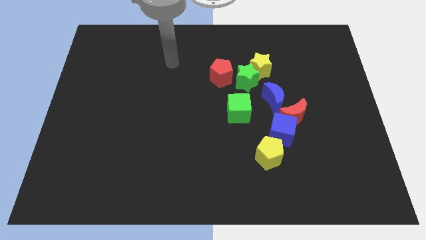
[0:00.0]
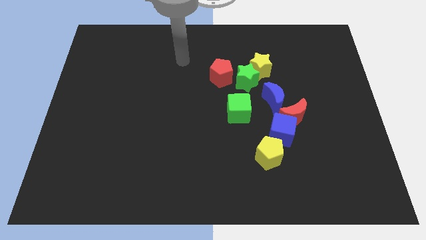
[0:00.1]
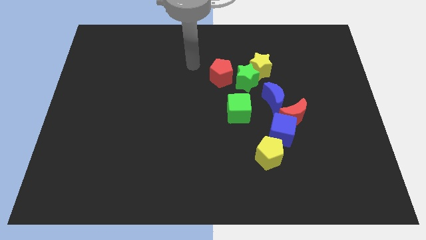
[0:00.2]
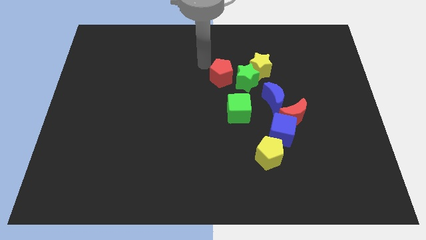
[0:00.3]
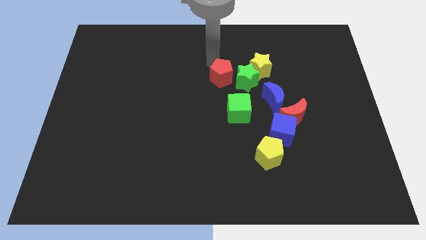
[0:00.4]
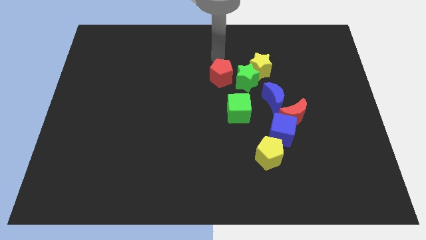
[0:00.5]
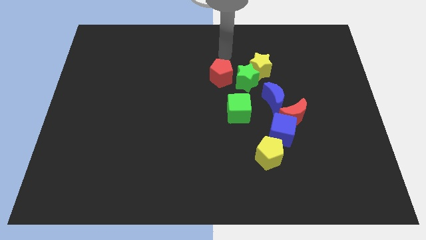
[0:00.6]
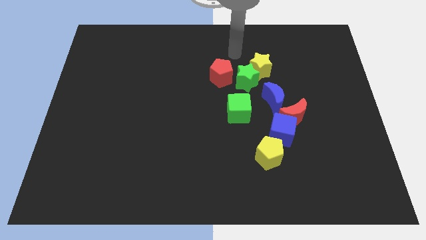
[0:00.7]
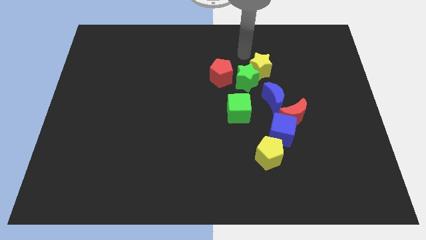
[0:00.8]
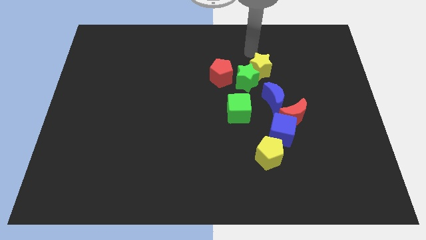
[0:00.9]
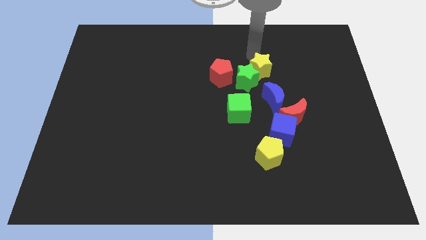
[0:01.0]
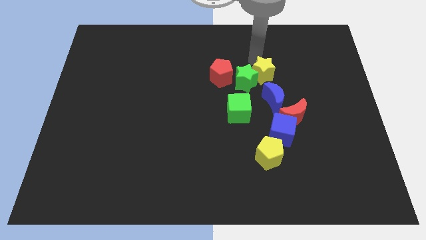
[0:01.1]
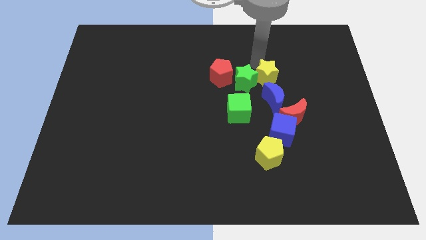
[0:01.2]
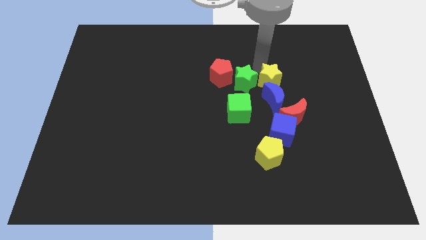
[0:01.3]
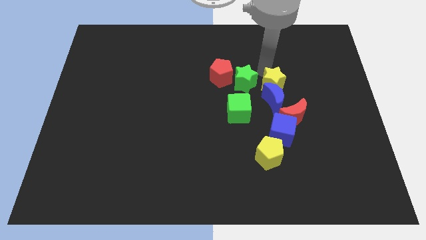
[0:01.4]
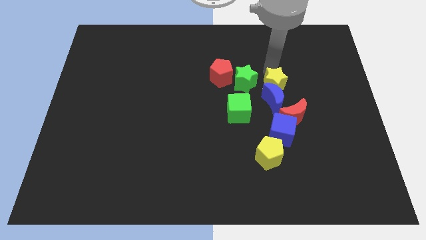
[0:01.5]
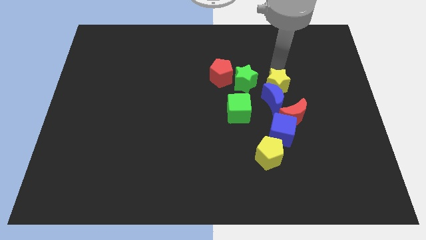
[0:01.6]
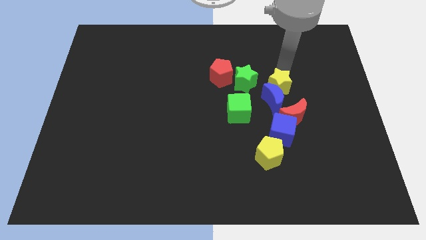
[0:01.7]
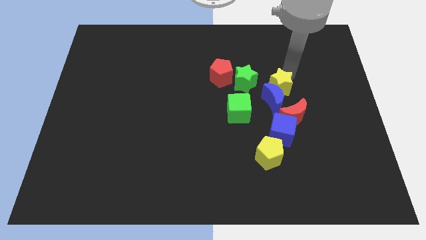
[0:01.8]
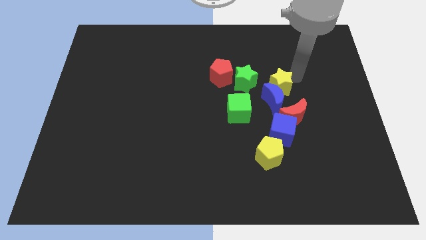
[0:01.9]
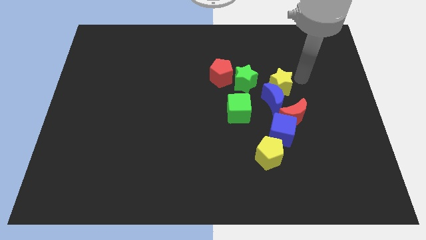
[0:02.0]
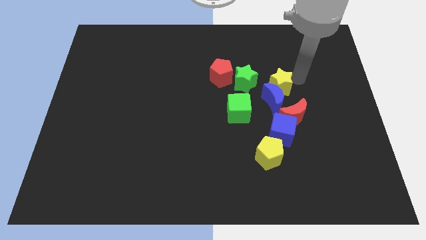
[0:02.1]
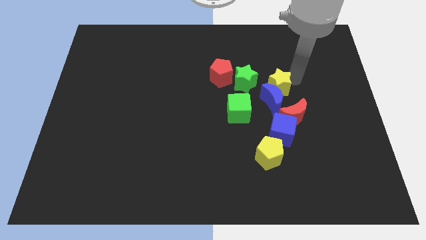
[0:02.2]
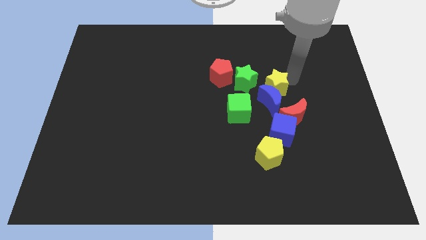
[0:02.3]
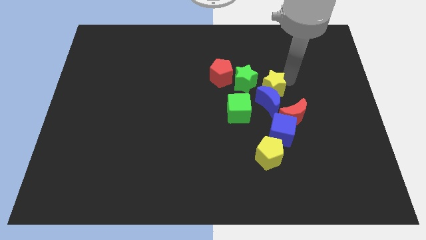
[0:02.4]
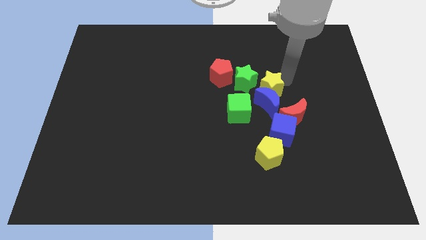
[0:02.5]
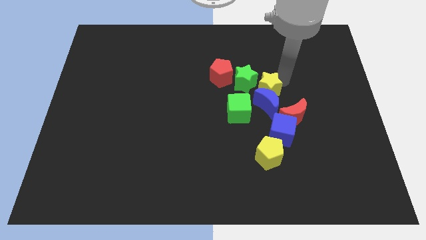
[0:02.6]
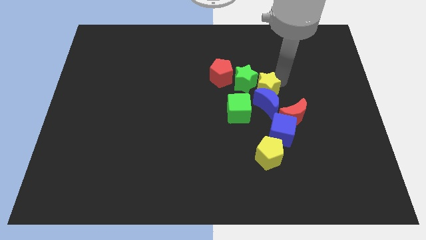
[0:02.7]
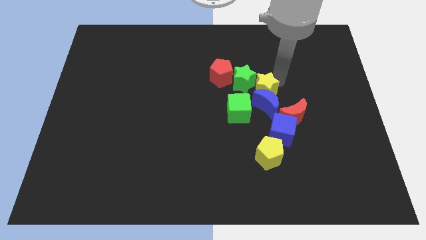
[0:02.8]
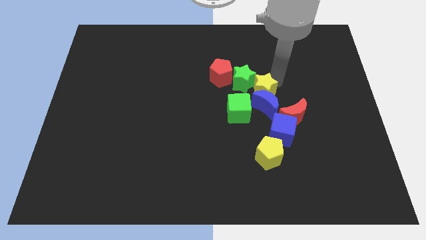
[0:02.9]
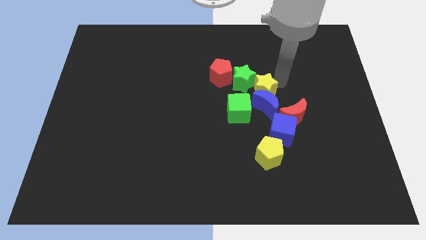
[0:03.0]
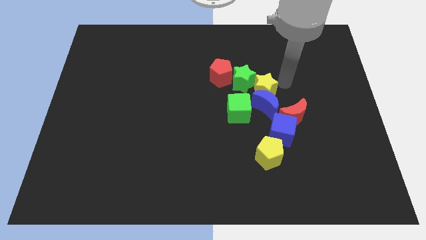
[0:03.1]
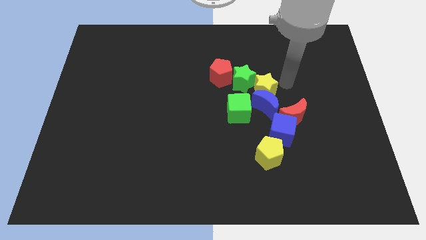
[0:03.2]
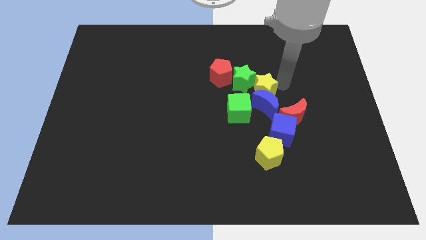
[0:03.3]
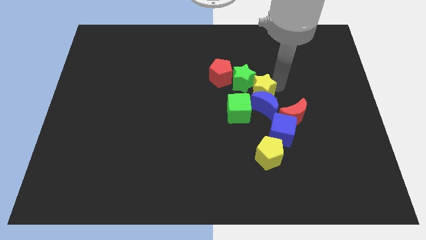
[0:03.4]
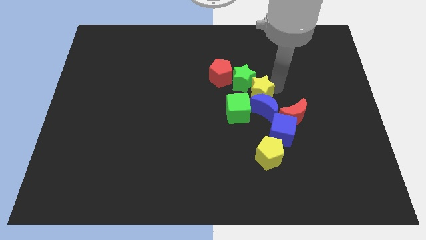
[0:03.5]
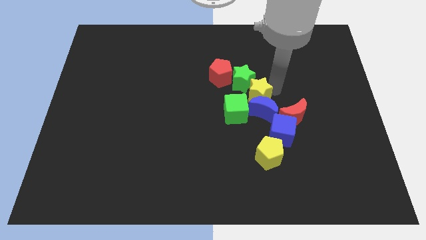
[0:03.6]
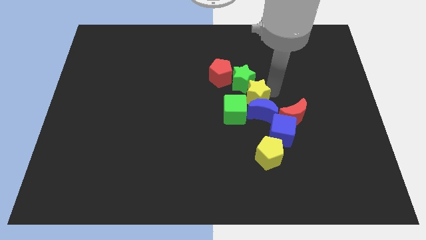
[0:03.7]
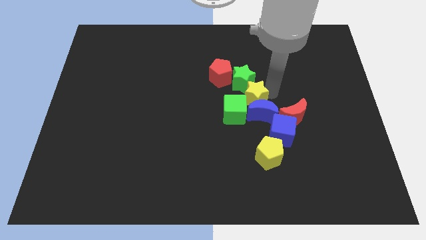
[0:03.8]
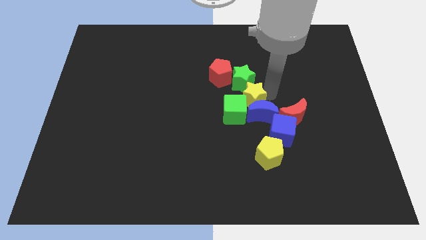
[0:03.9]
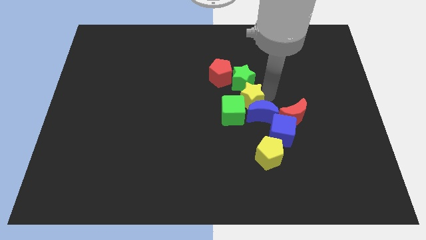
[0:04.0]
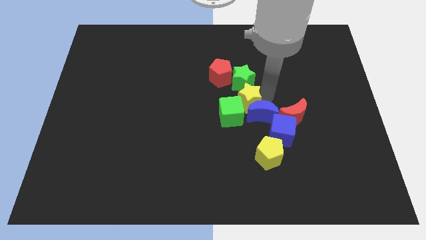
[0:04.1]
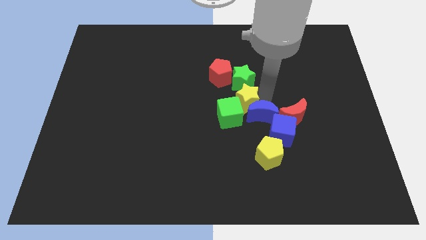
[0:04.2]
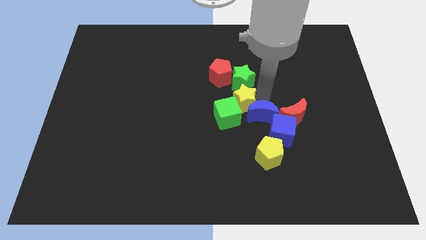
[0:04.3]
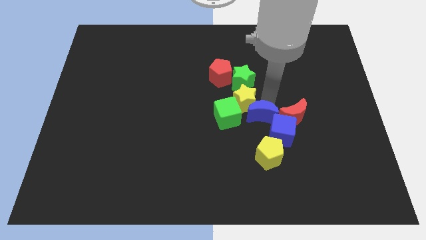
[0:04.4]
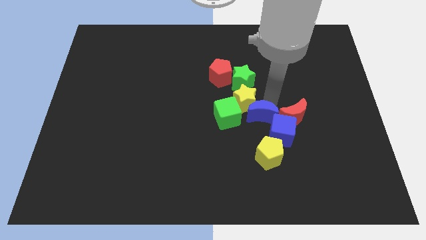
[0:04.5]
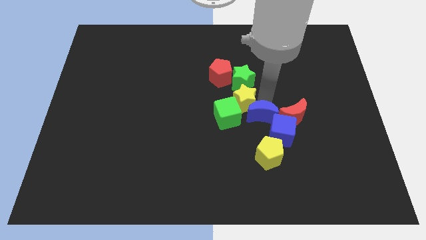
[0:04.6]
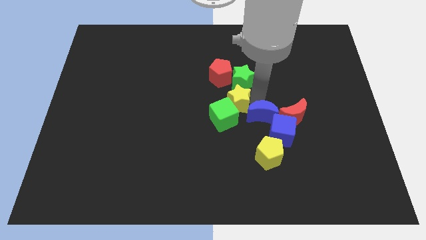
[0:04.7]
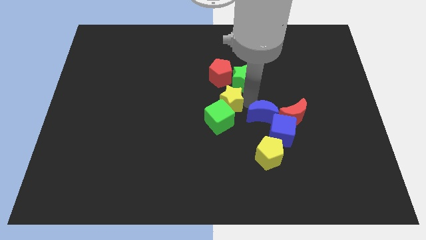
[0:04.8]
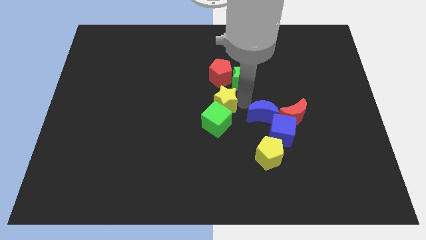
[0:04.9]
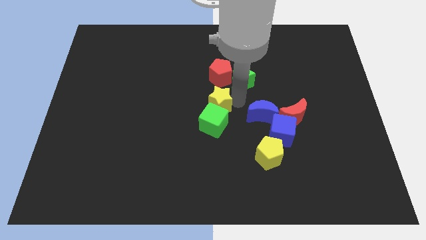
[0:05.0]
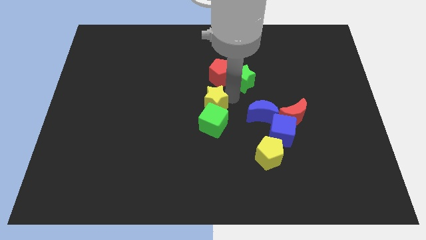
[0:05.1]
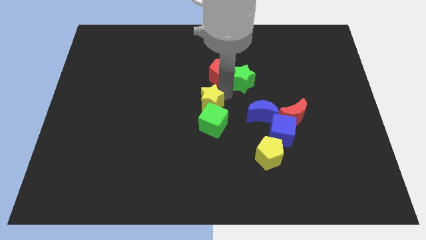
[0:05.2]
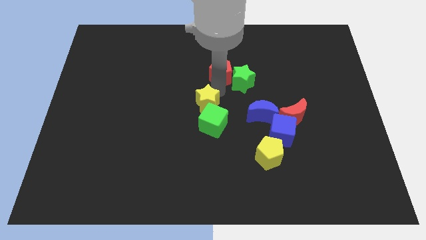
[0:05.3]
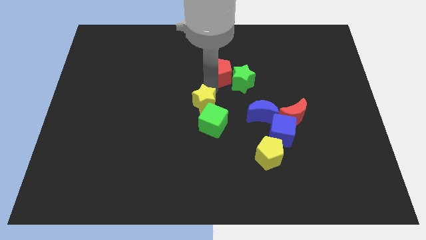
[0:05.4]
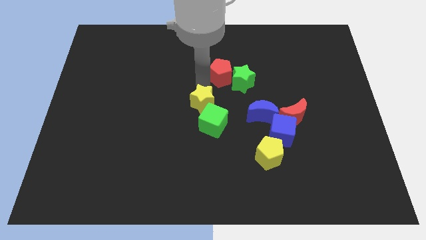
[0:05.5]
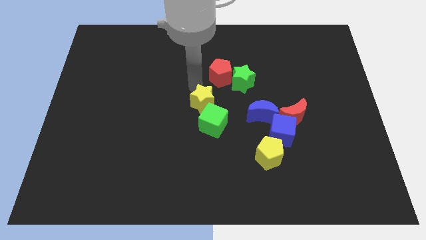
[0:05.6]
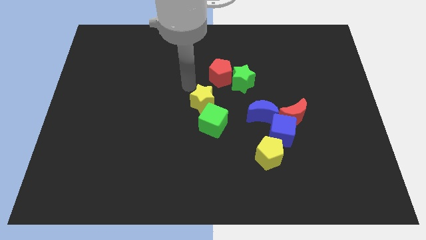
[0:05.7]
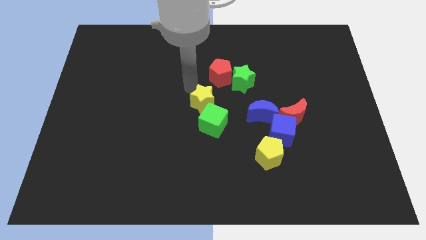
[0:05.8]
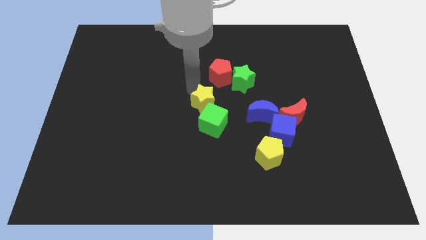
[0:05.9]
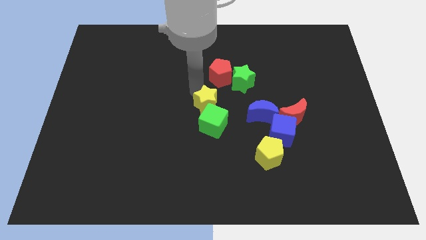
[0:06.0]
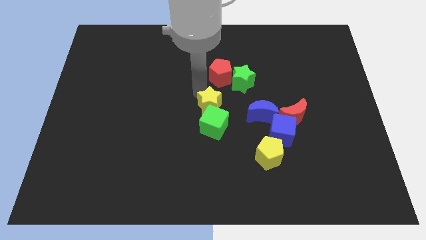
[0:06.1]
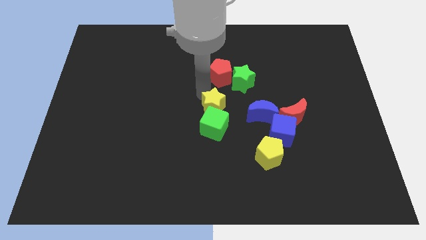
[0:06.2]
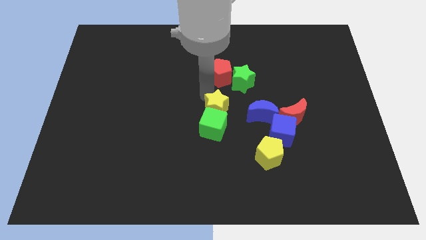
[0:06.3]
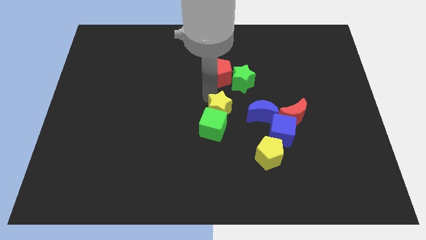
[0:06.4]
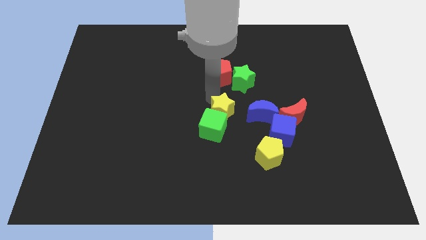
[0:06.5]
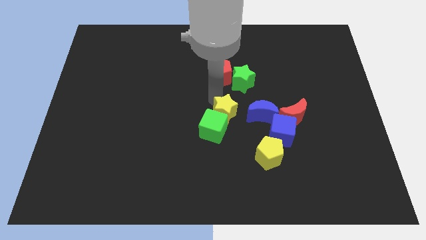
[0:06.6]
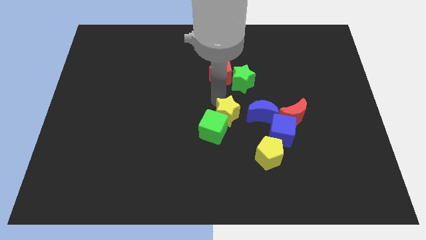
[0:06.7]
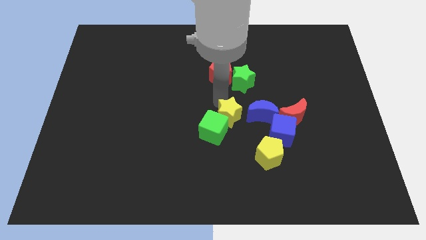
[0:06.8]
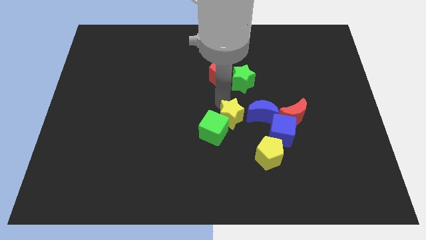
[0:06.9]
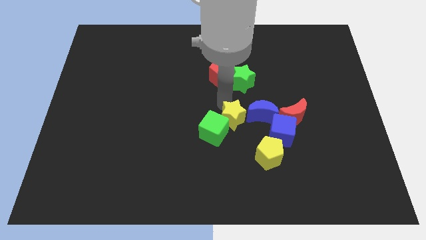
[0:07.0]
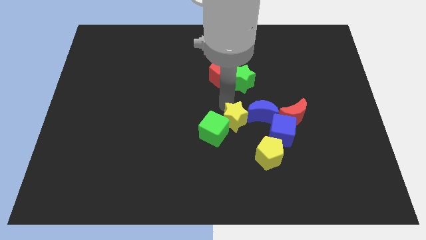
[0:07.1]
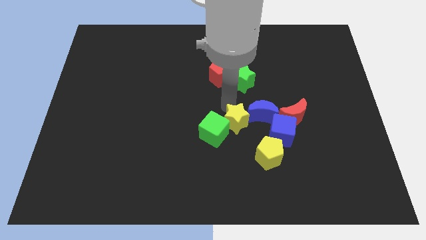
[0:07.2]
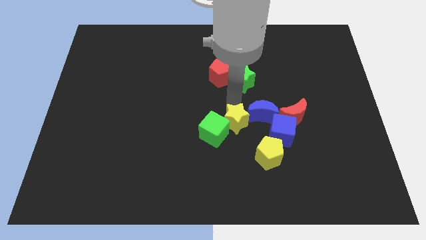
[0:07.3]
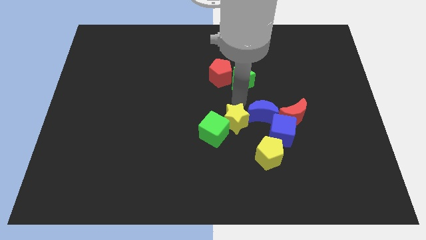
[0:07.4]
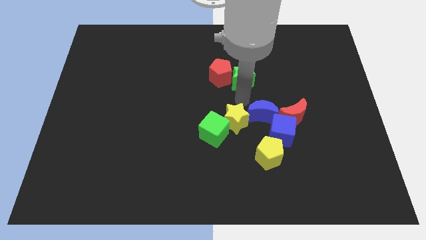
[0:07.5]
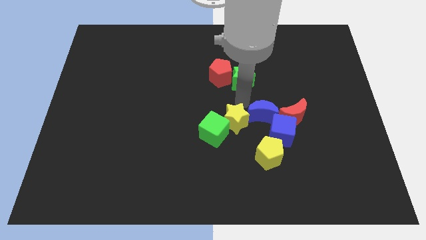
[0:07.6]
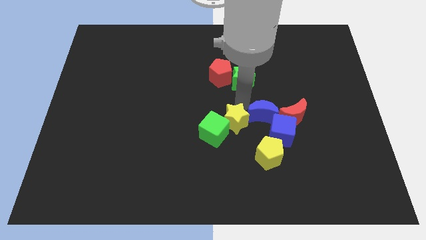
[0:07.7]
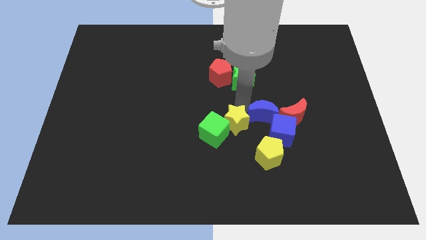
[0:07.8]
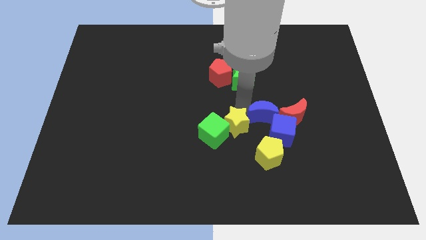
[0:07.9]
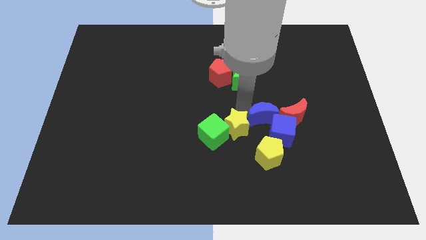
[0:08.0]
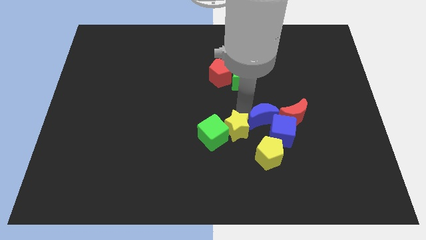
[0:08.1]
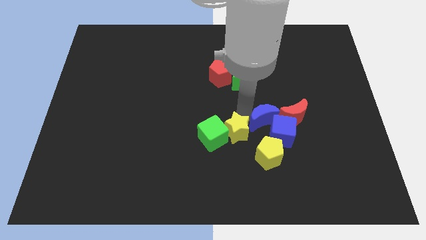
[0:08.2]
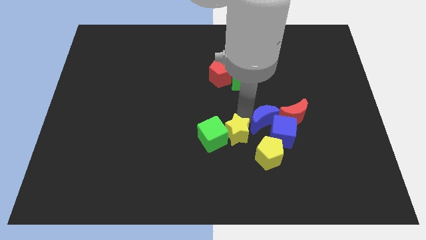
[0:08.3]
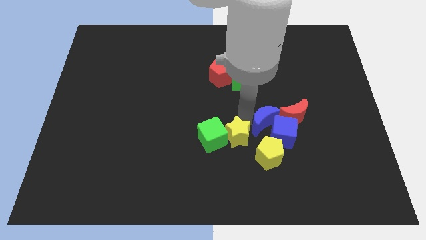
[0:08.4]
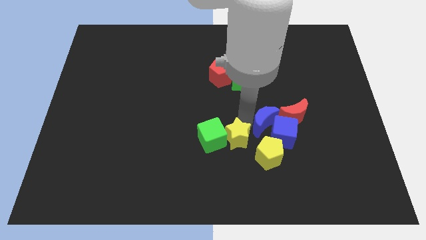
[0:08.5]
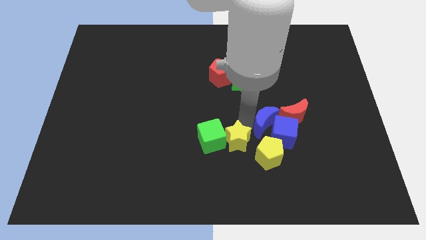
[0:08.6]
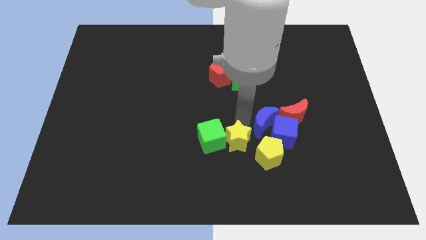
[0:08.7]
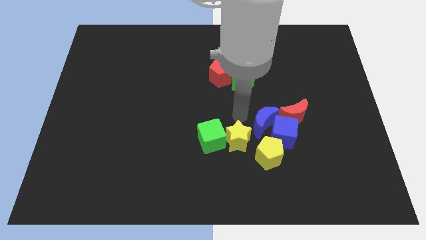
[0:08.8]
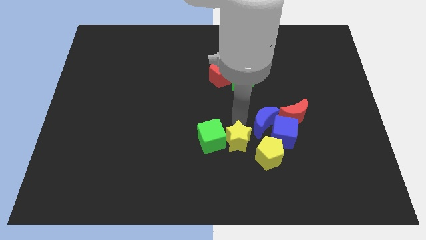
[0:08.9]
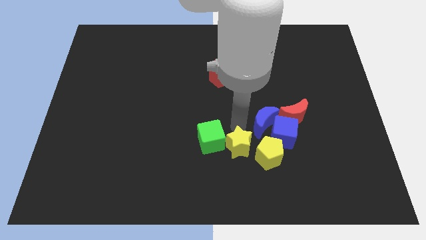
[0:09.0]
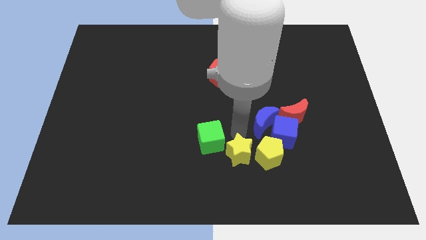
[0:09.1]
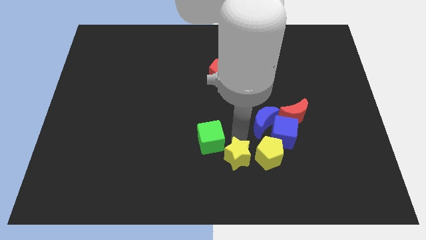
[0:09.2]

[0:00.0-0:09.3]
move the yellow star to the bottom side
